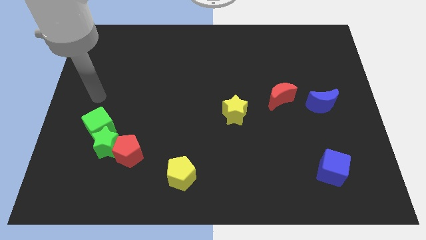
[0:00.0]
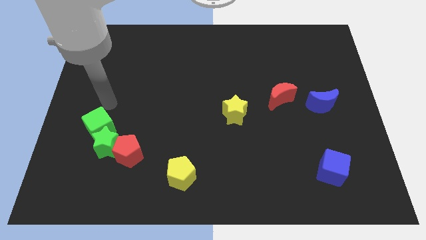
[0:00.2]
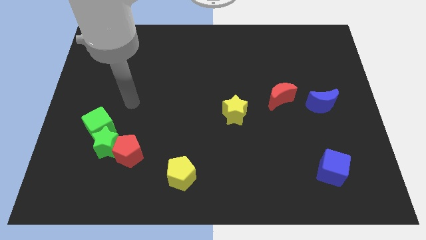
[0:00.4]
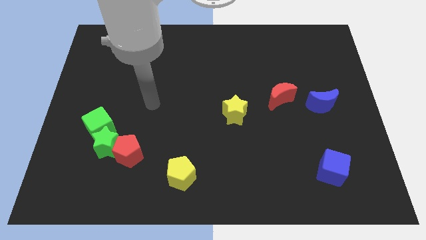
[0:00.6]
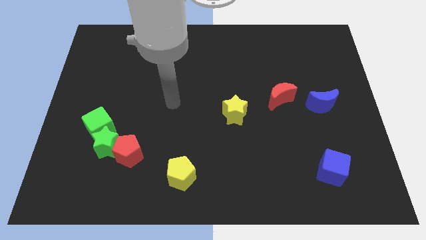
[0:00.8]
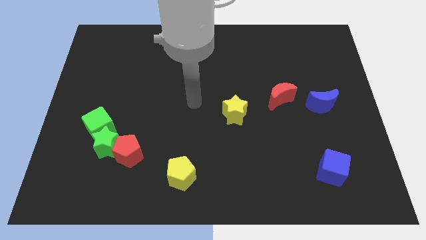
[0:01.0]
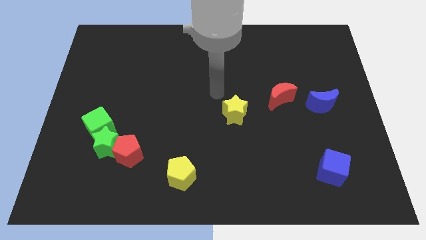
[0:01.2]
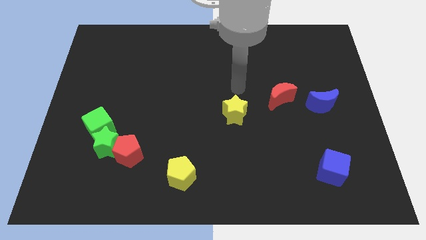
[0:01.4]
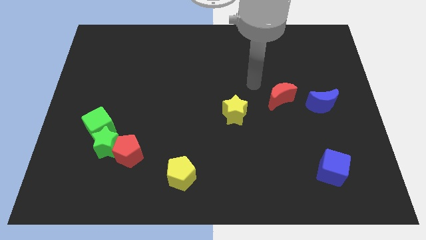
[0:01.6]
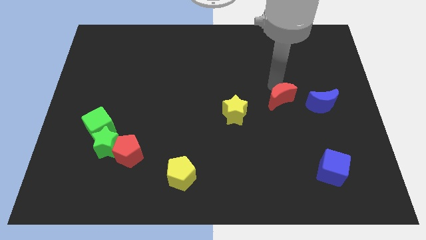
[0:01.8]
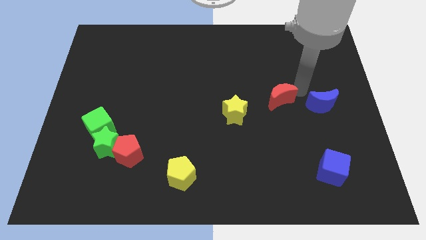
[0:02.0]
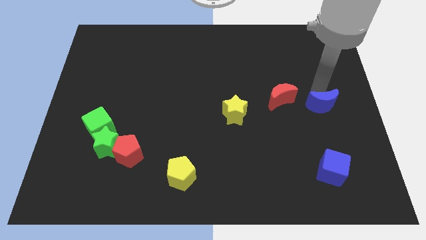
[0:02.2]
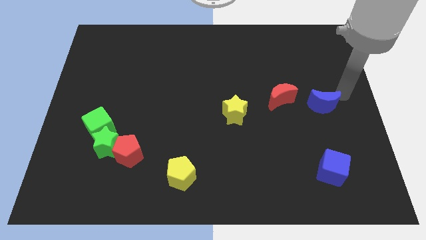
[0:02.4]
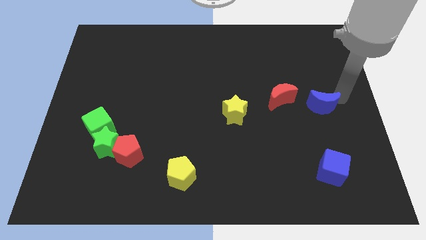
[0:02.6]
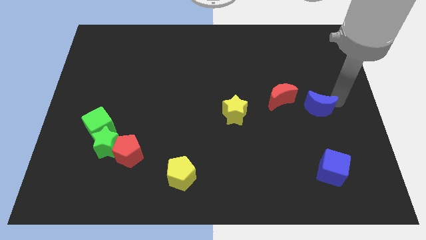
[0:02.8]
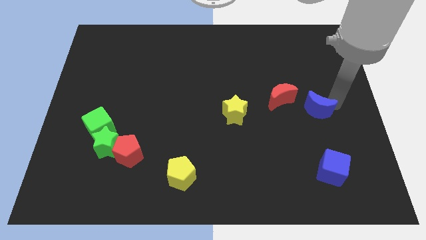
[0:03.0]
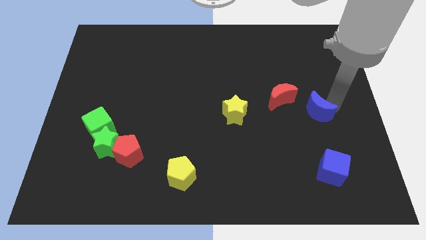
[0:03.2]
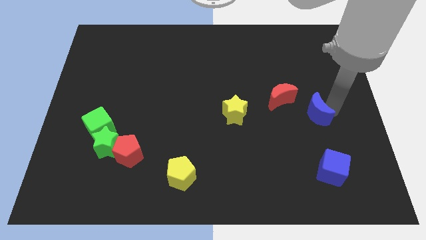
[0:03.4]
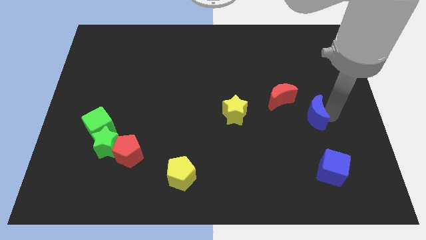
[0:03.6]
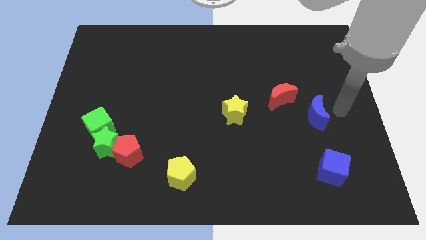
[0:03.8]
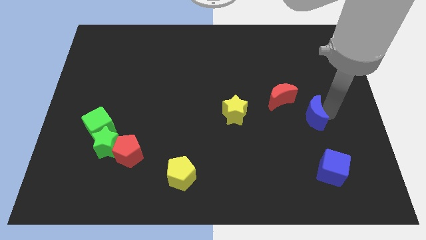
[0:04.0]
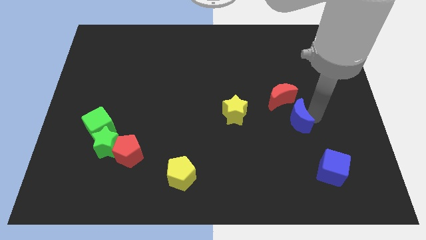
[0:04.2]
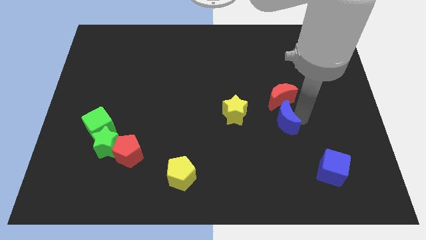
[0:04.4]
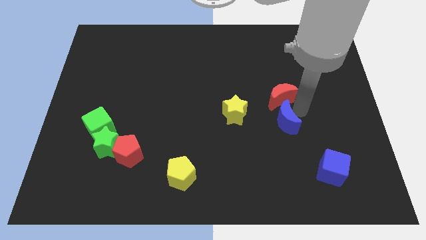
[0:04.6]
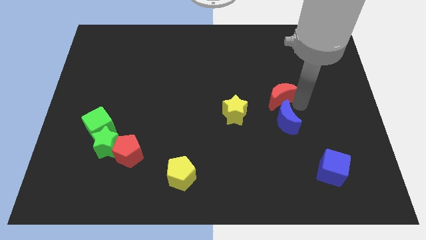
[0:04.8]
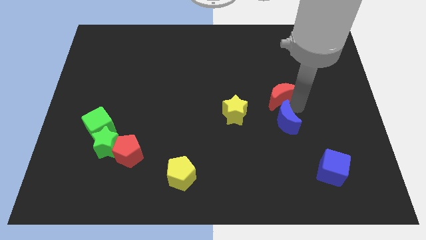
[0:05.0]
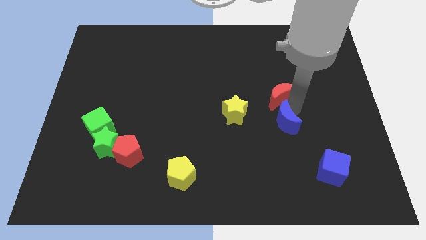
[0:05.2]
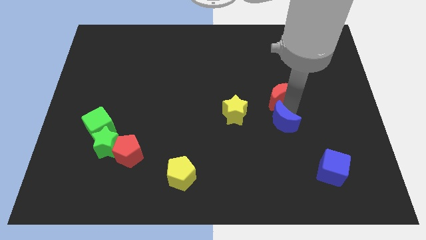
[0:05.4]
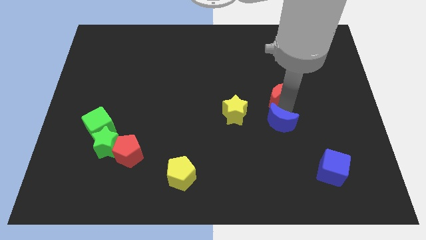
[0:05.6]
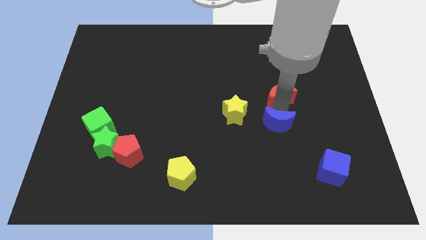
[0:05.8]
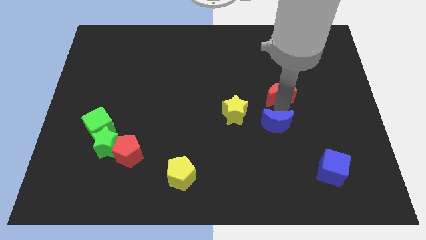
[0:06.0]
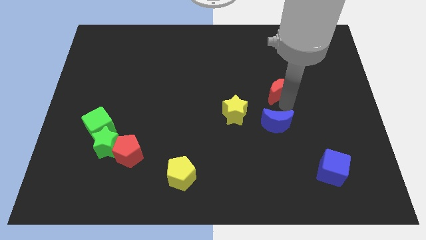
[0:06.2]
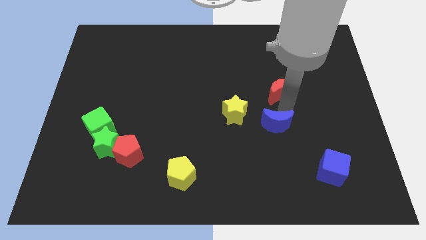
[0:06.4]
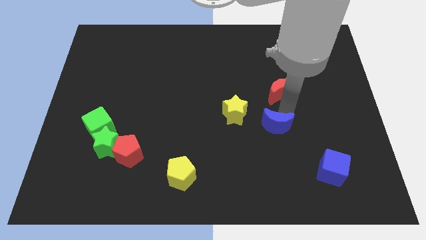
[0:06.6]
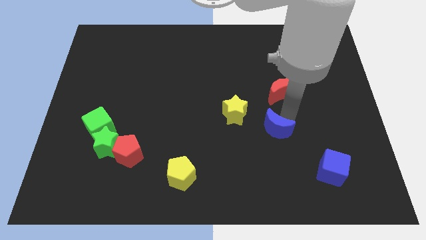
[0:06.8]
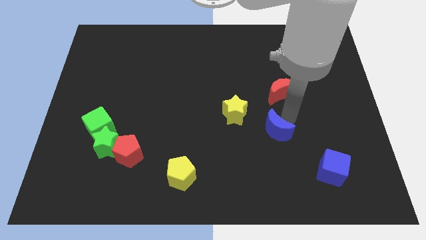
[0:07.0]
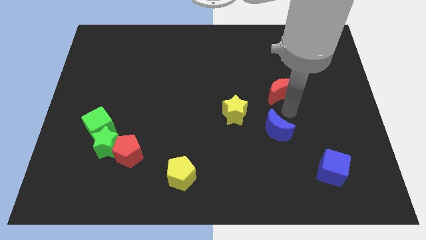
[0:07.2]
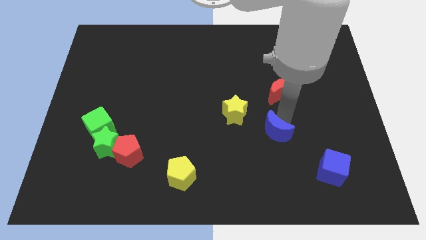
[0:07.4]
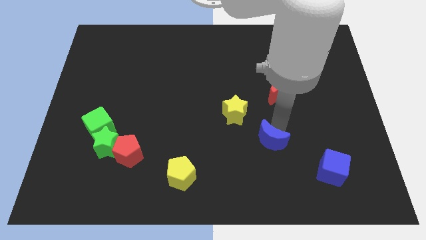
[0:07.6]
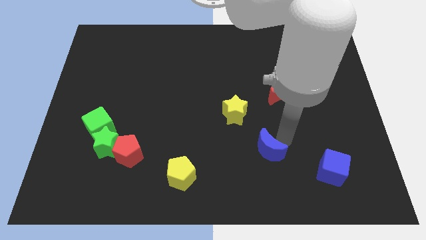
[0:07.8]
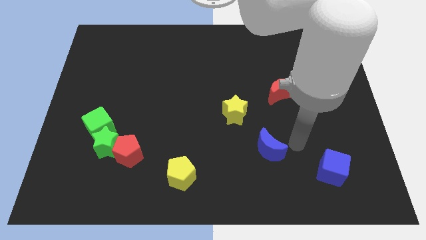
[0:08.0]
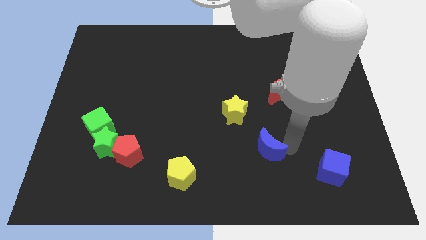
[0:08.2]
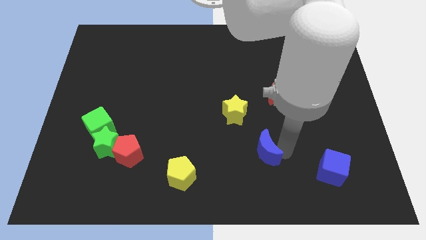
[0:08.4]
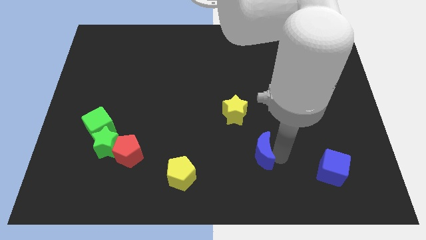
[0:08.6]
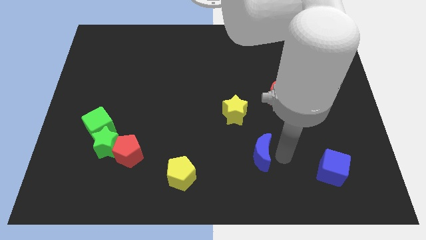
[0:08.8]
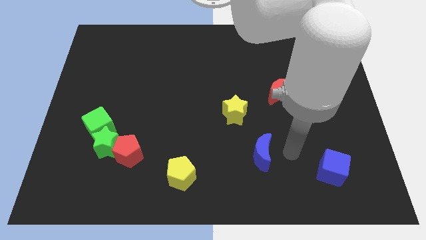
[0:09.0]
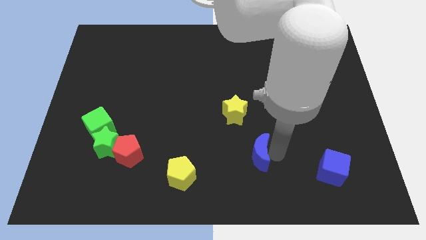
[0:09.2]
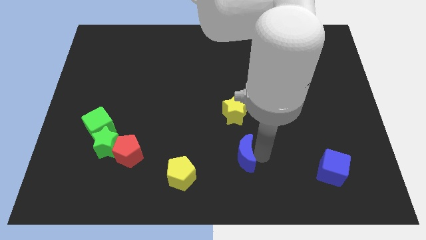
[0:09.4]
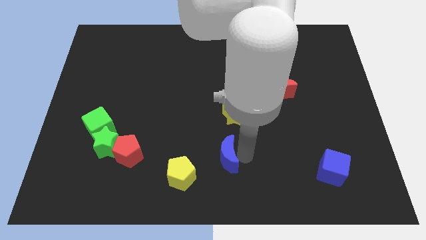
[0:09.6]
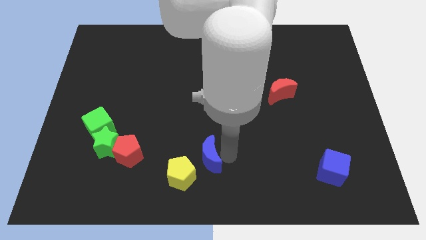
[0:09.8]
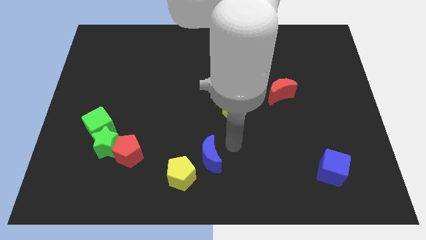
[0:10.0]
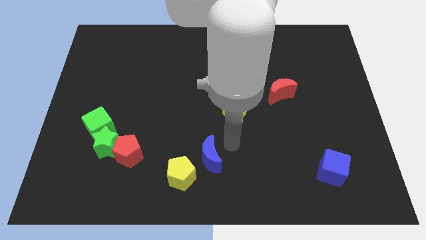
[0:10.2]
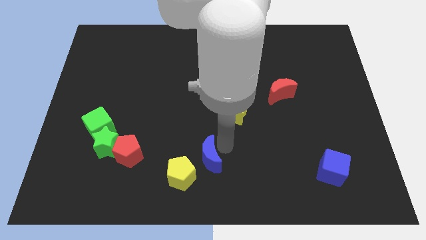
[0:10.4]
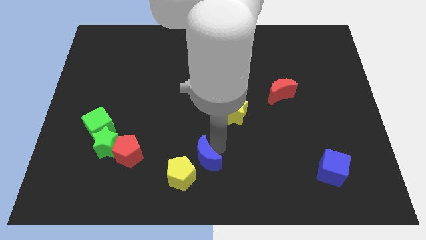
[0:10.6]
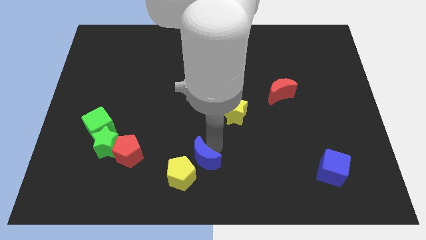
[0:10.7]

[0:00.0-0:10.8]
move the blue moon to the yellow pentagon

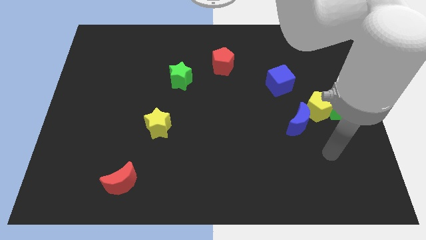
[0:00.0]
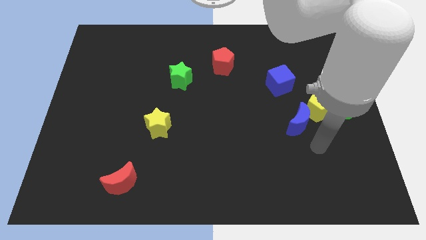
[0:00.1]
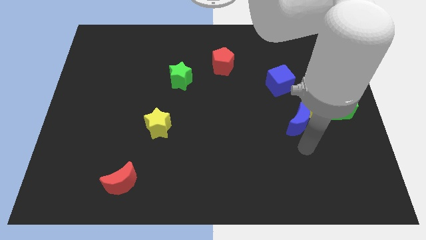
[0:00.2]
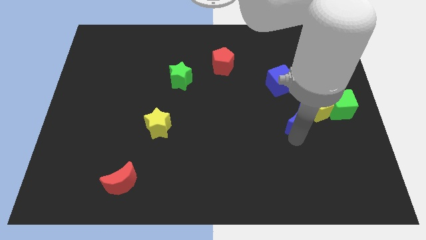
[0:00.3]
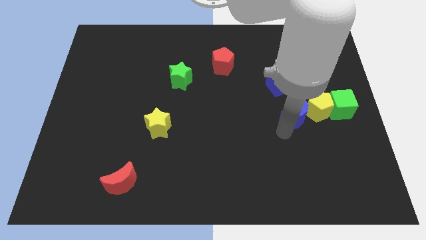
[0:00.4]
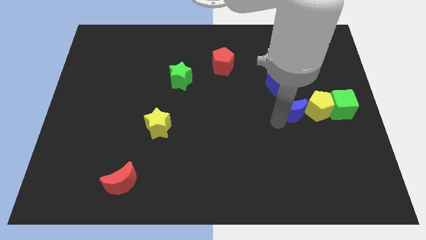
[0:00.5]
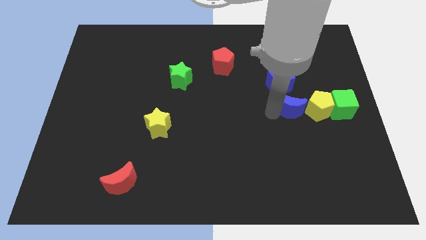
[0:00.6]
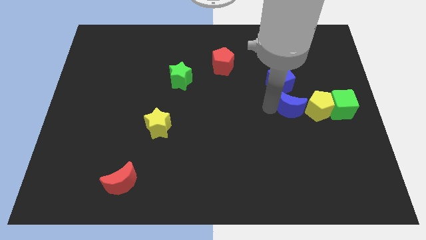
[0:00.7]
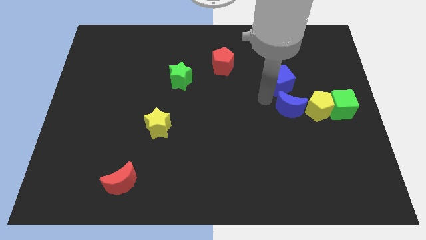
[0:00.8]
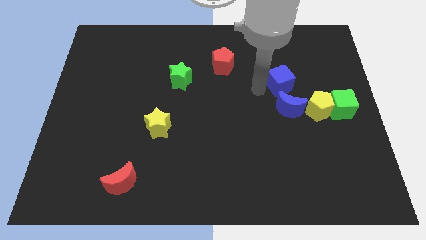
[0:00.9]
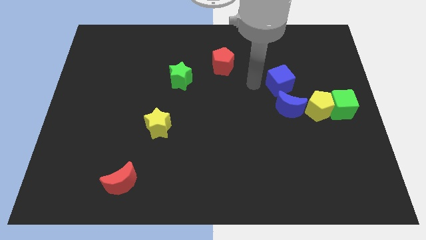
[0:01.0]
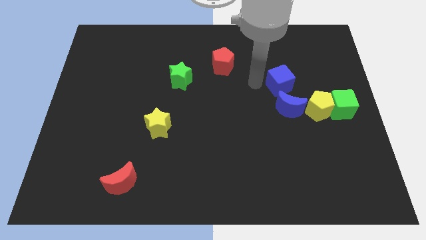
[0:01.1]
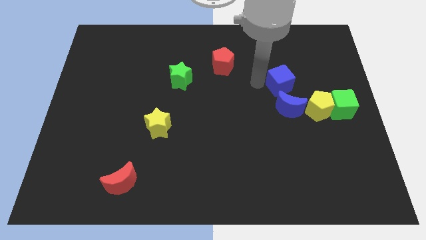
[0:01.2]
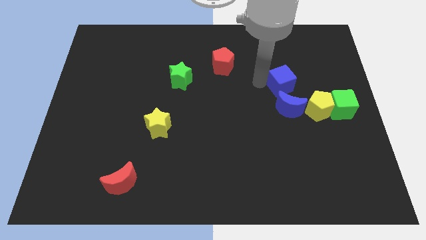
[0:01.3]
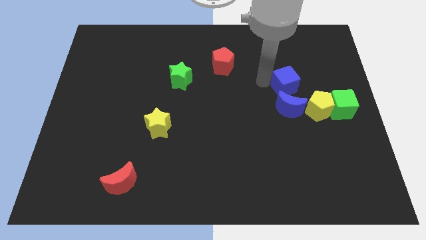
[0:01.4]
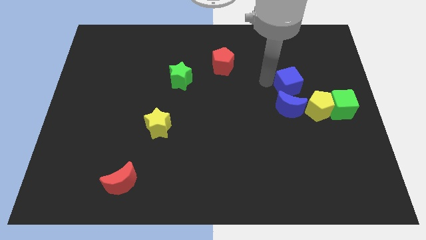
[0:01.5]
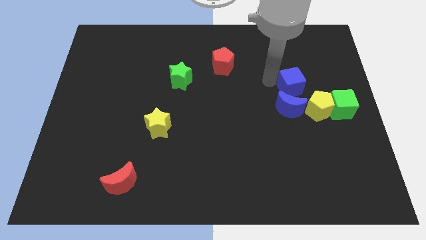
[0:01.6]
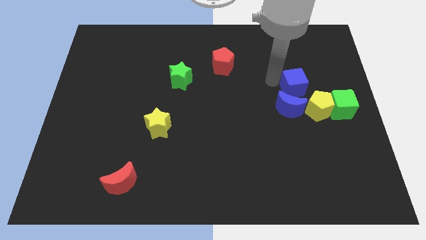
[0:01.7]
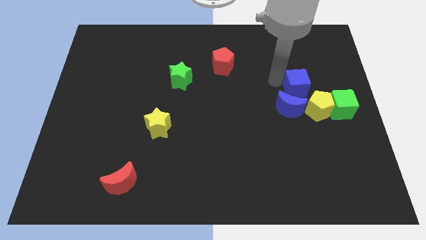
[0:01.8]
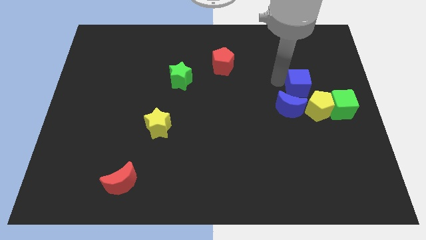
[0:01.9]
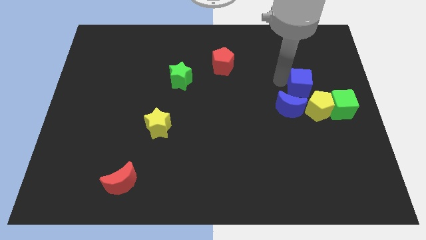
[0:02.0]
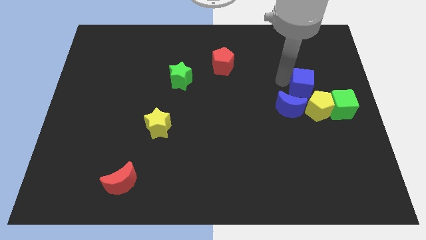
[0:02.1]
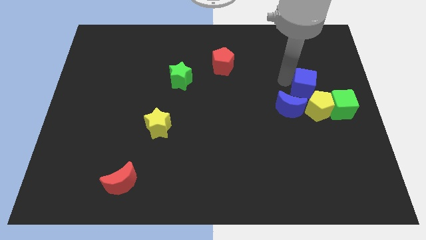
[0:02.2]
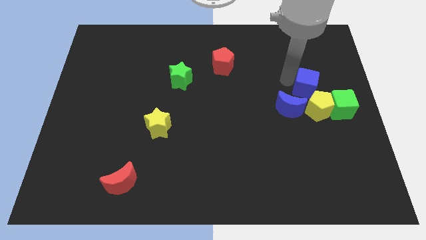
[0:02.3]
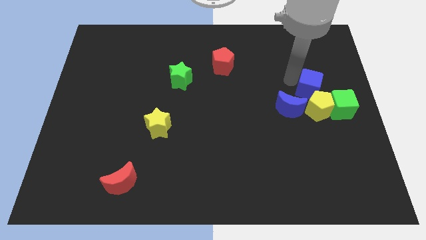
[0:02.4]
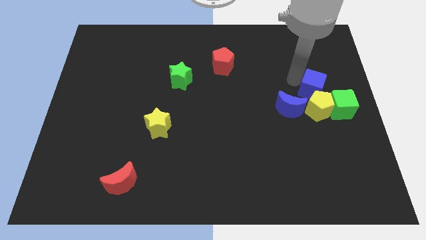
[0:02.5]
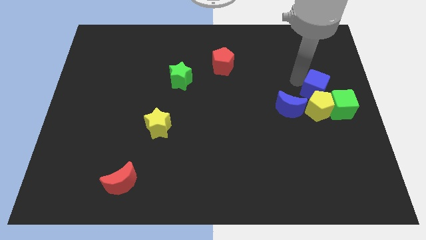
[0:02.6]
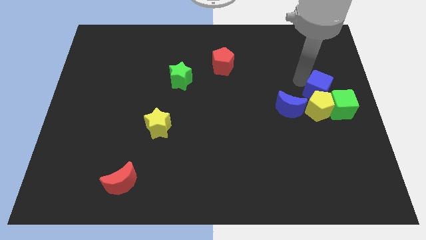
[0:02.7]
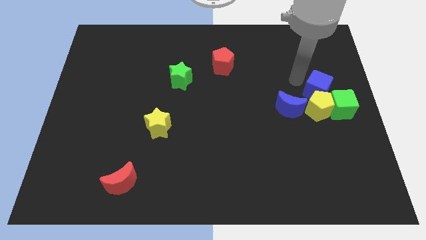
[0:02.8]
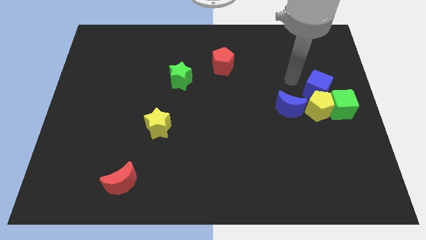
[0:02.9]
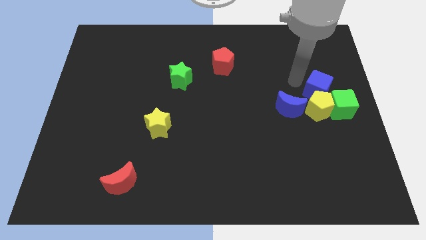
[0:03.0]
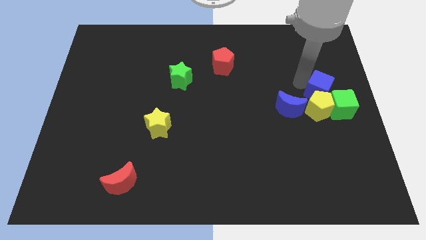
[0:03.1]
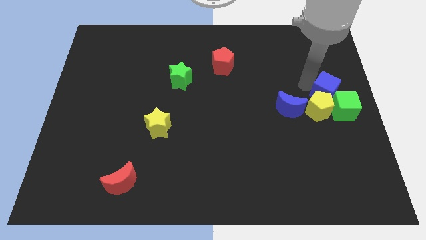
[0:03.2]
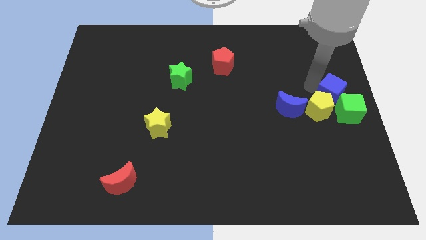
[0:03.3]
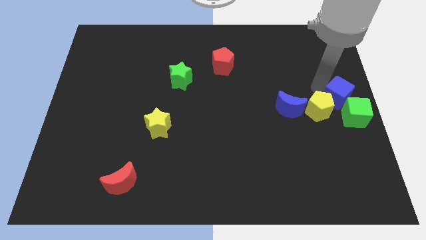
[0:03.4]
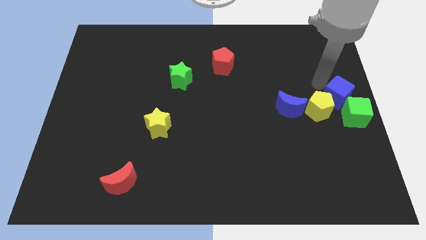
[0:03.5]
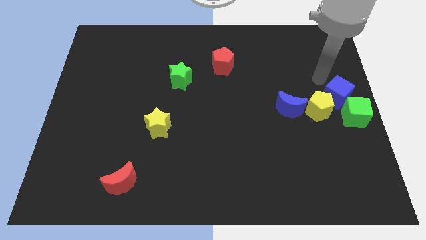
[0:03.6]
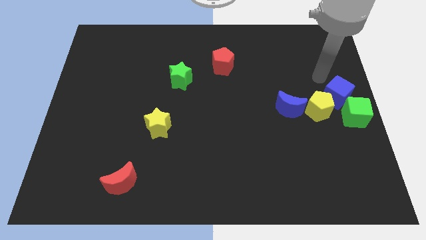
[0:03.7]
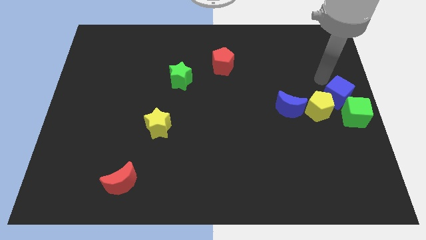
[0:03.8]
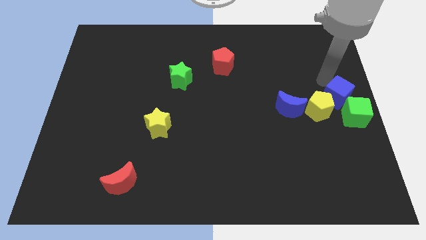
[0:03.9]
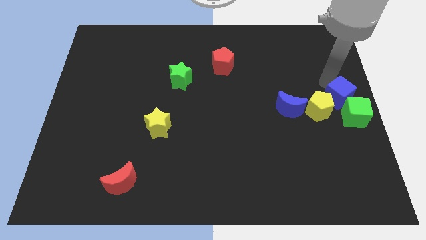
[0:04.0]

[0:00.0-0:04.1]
push the blue cube towards the green cube
